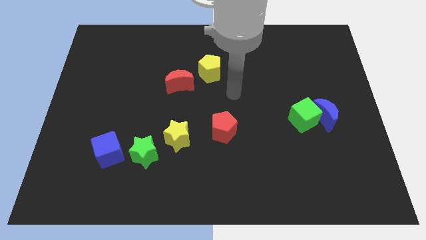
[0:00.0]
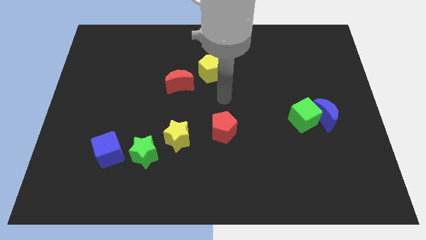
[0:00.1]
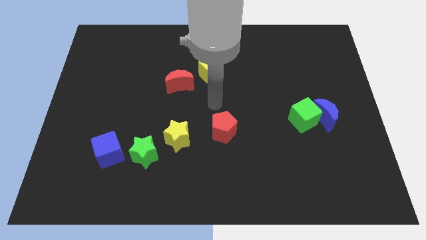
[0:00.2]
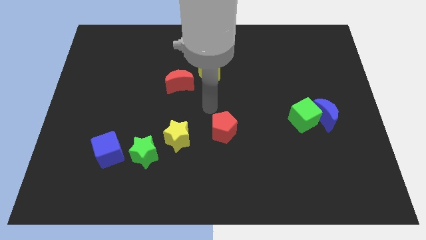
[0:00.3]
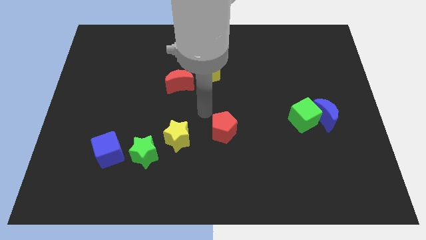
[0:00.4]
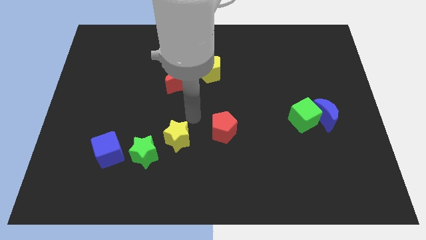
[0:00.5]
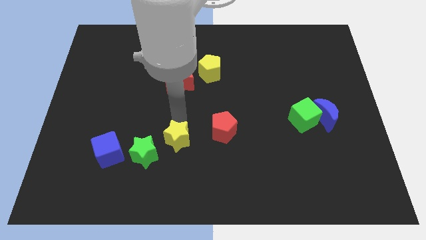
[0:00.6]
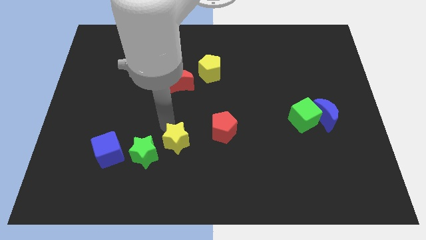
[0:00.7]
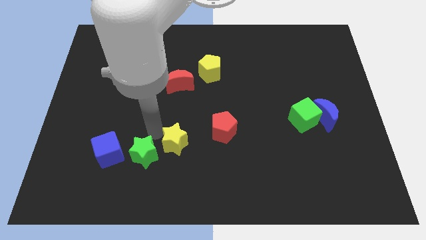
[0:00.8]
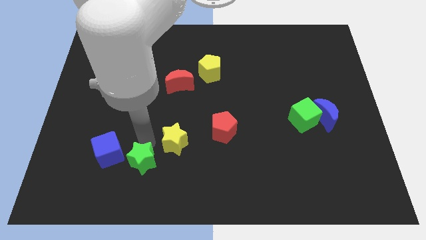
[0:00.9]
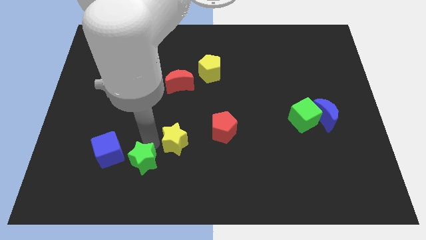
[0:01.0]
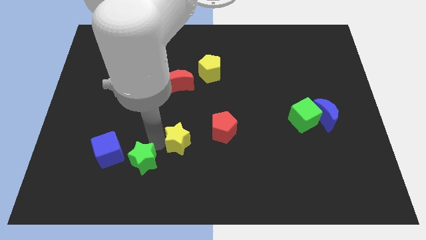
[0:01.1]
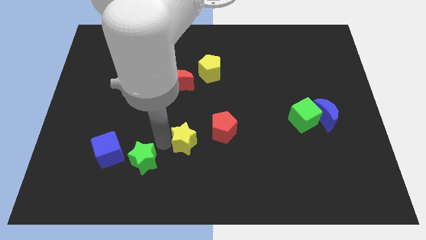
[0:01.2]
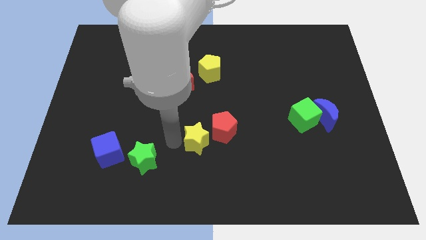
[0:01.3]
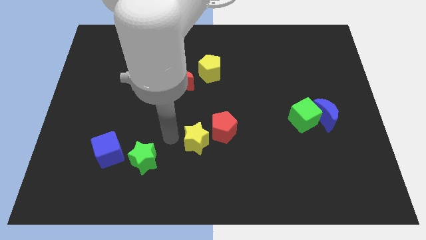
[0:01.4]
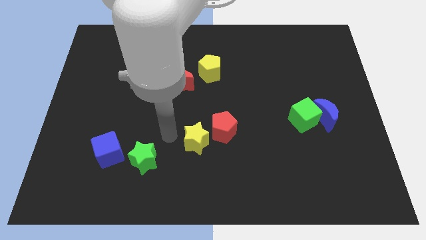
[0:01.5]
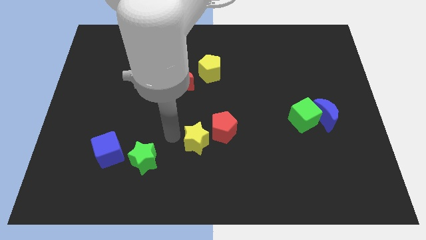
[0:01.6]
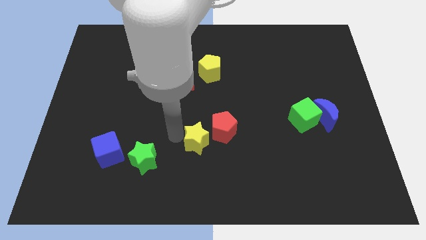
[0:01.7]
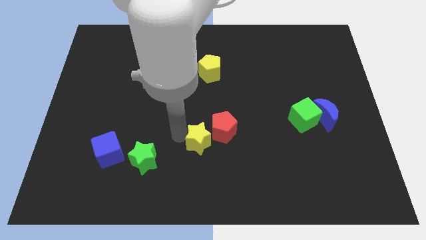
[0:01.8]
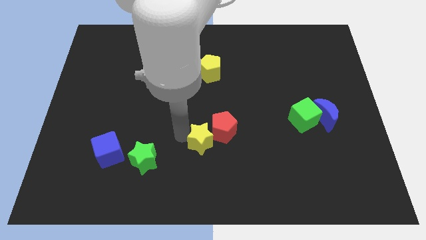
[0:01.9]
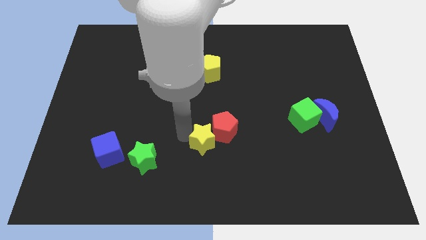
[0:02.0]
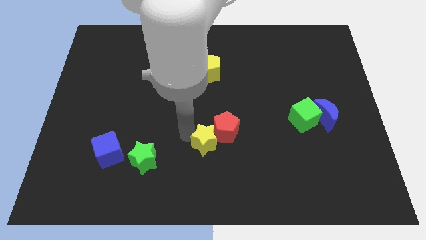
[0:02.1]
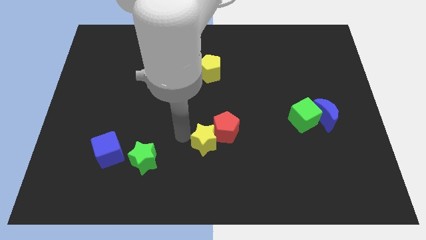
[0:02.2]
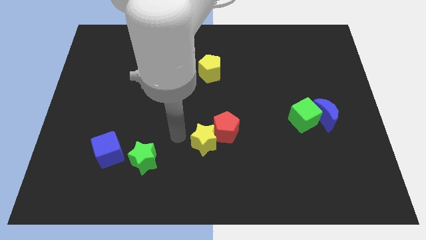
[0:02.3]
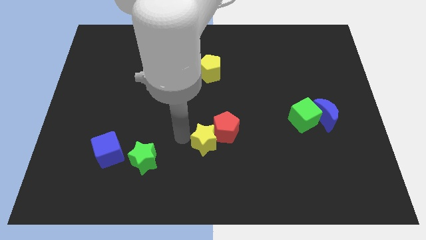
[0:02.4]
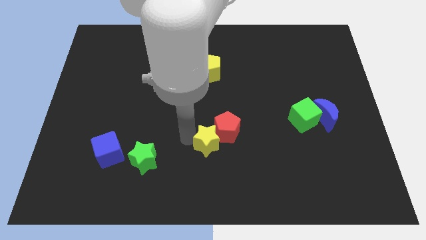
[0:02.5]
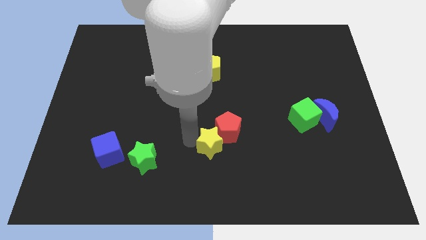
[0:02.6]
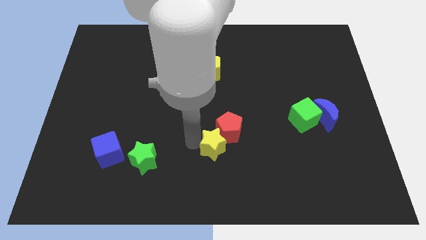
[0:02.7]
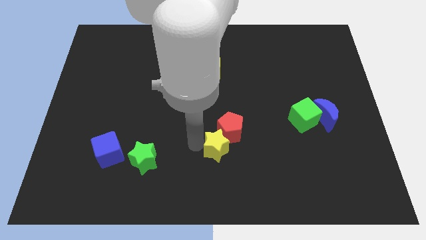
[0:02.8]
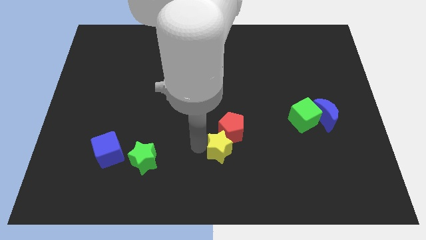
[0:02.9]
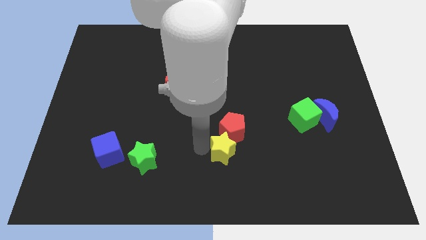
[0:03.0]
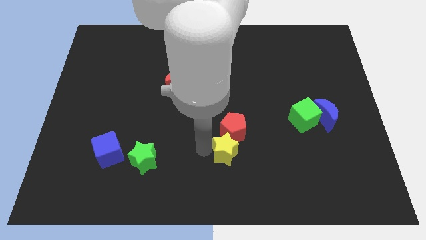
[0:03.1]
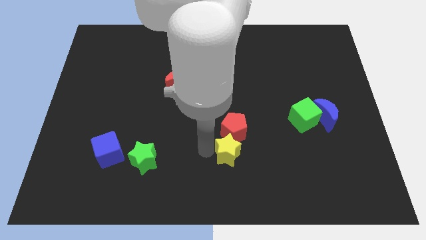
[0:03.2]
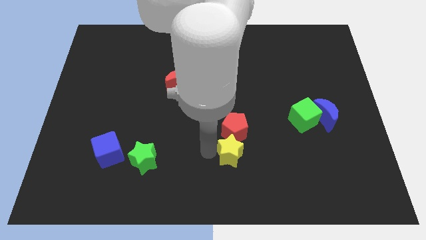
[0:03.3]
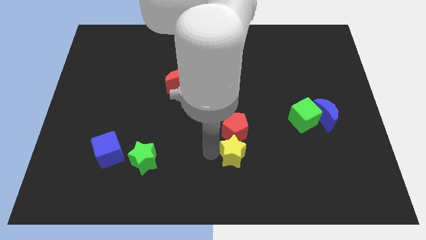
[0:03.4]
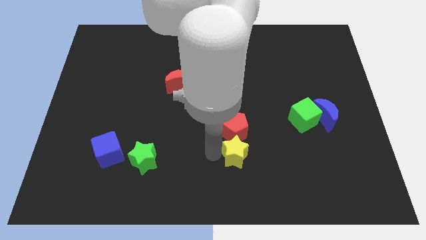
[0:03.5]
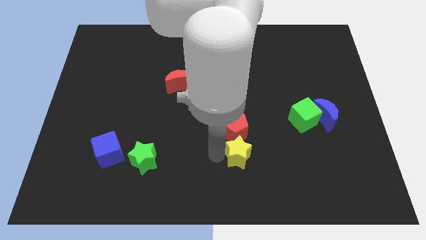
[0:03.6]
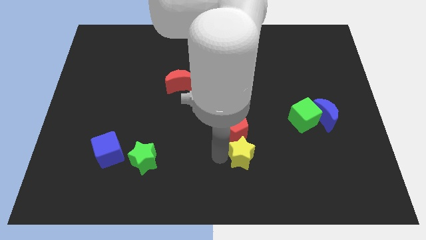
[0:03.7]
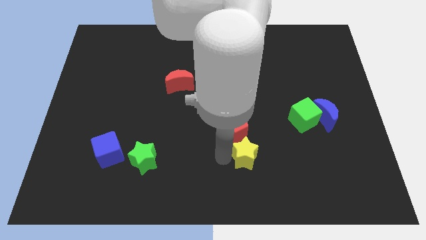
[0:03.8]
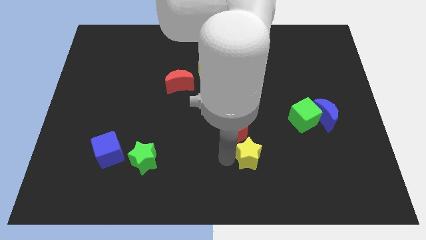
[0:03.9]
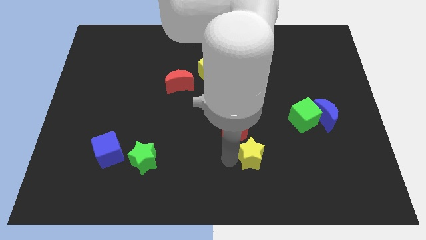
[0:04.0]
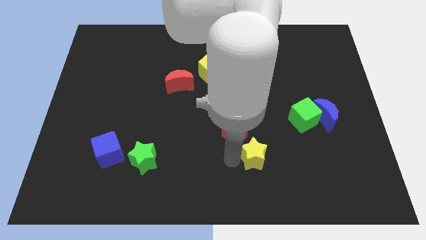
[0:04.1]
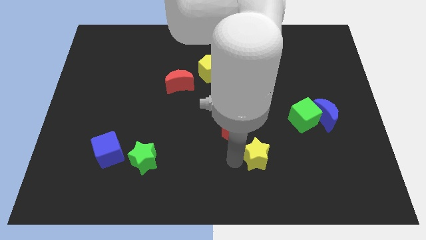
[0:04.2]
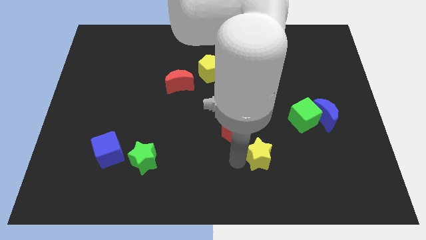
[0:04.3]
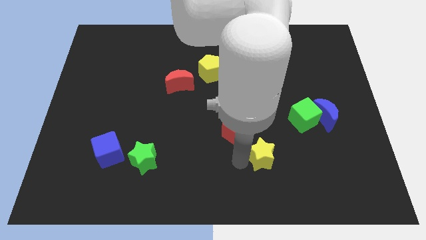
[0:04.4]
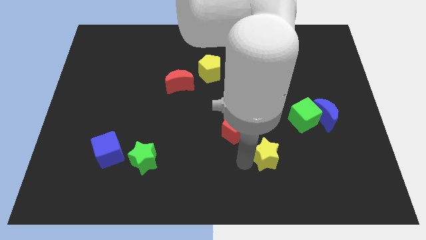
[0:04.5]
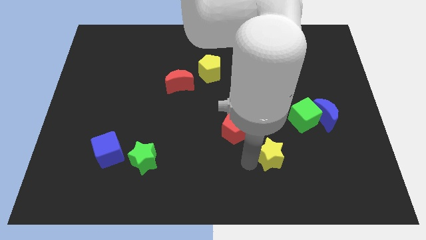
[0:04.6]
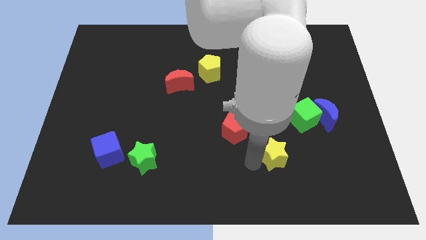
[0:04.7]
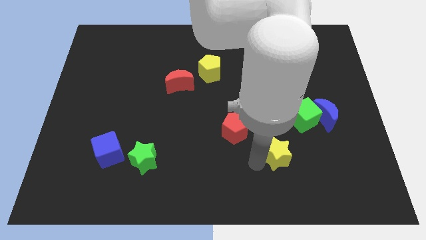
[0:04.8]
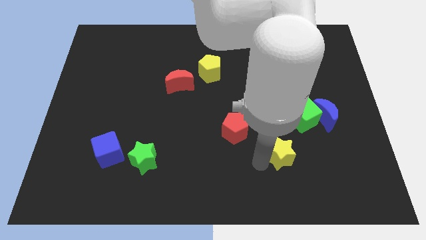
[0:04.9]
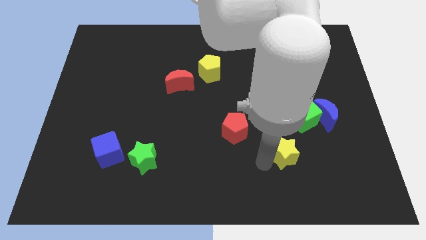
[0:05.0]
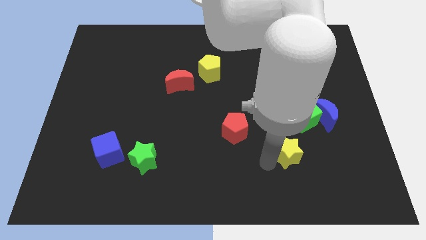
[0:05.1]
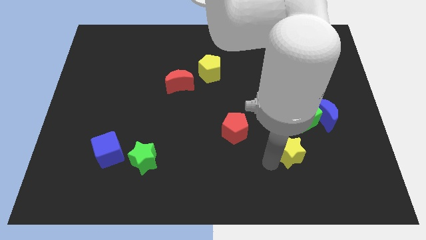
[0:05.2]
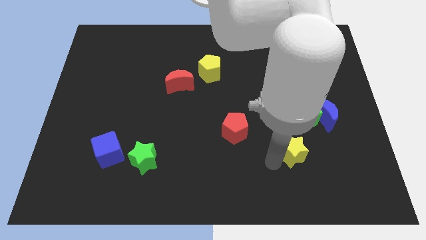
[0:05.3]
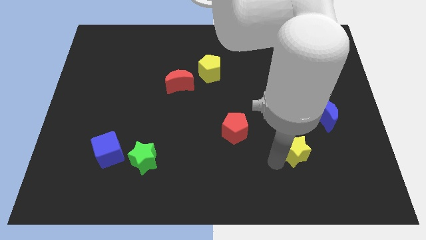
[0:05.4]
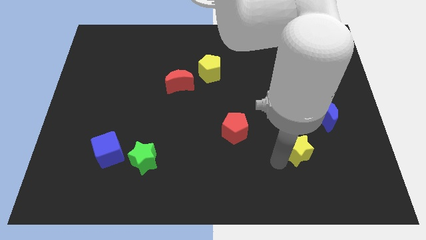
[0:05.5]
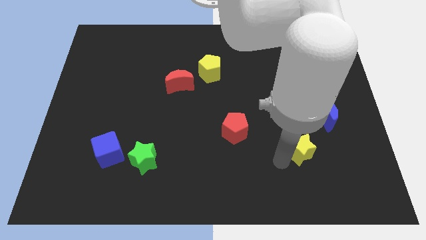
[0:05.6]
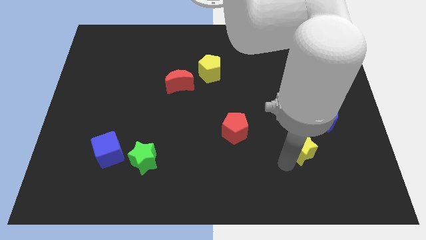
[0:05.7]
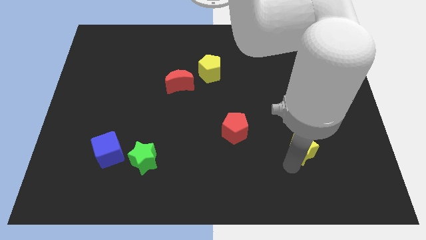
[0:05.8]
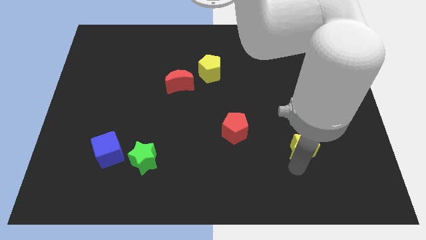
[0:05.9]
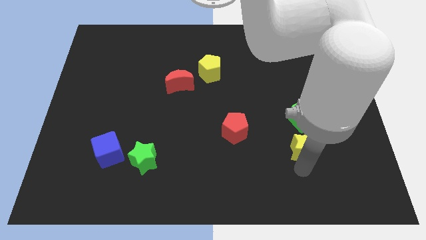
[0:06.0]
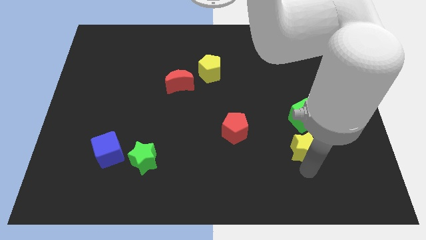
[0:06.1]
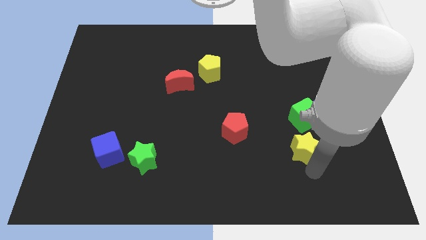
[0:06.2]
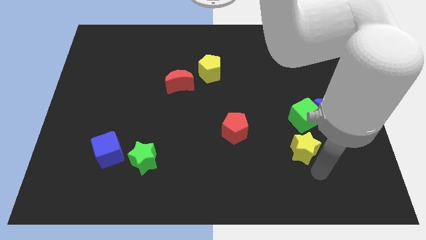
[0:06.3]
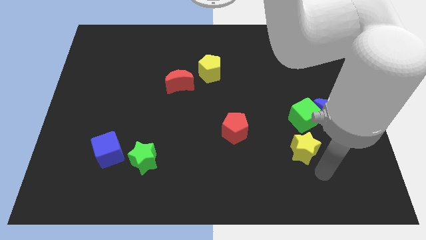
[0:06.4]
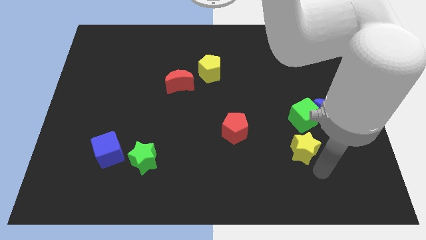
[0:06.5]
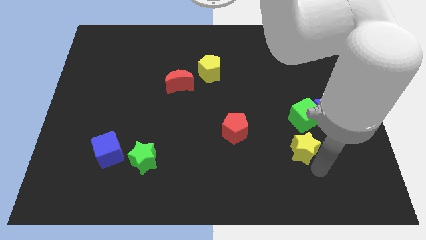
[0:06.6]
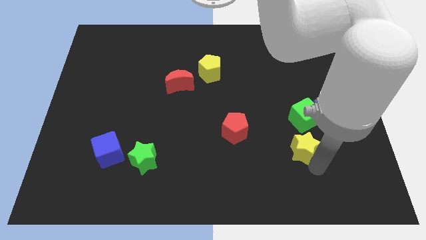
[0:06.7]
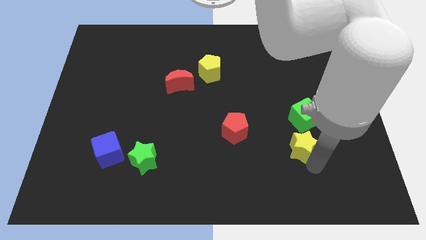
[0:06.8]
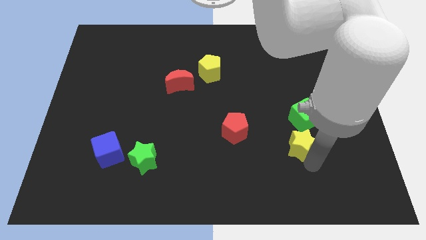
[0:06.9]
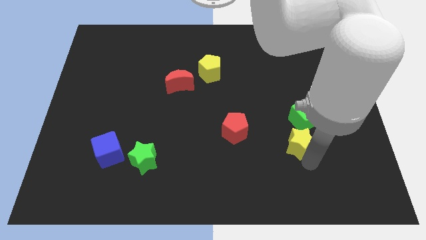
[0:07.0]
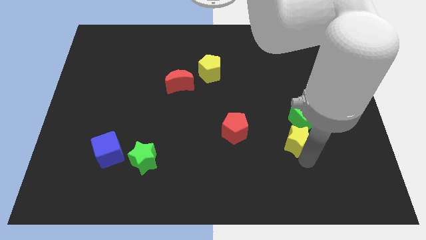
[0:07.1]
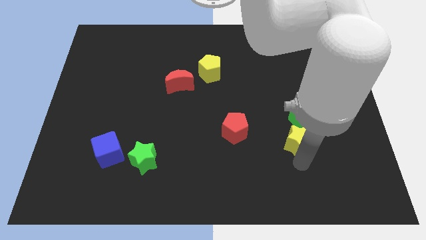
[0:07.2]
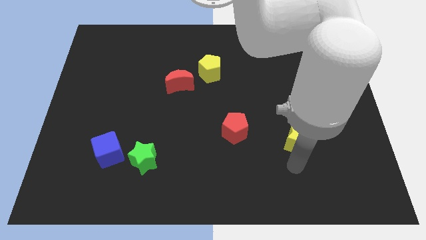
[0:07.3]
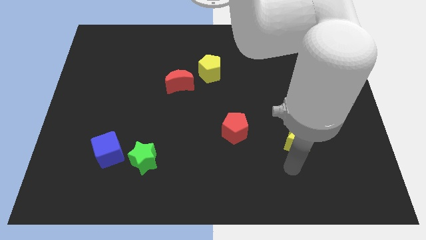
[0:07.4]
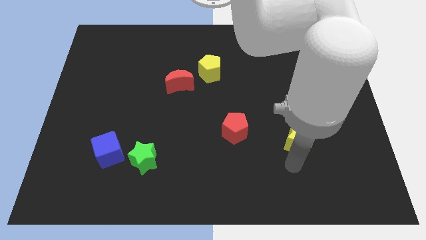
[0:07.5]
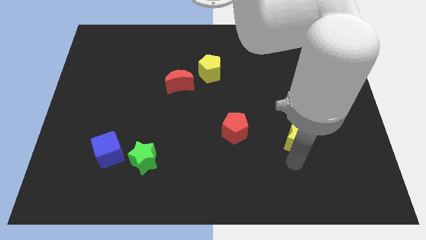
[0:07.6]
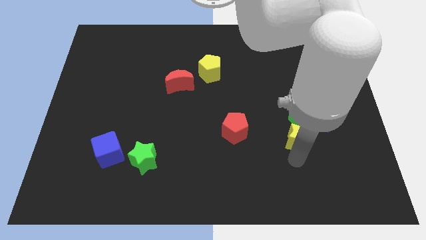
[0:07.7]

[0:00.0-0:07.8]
move the yellow star close to the green cube
